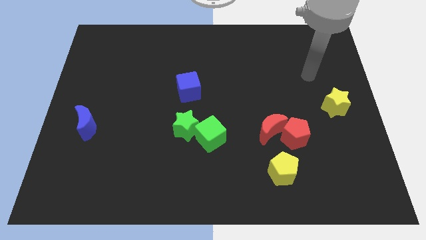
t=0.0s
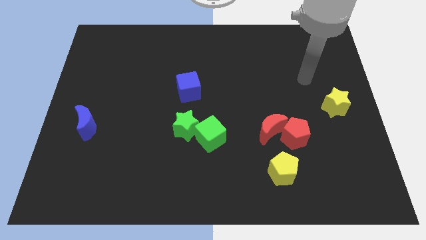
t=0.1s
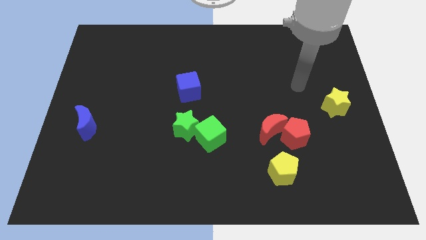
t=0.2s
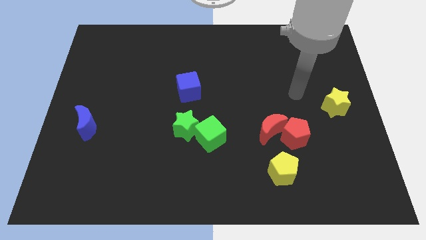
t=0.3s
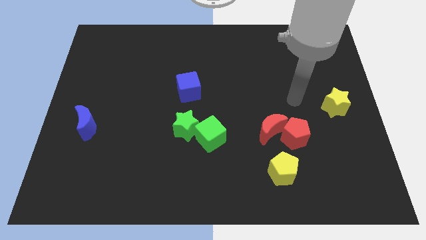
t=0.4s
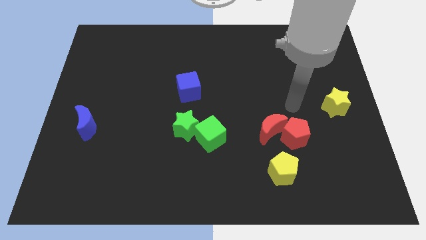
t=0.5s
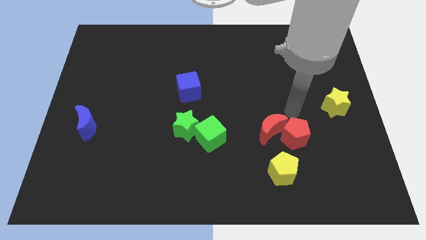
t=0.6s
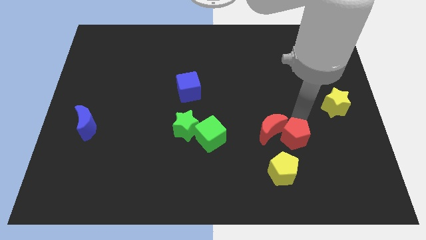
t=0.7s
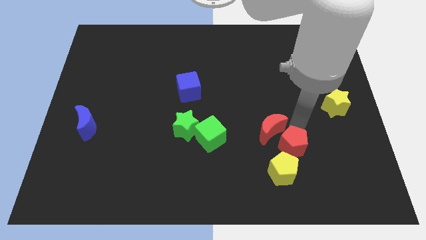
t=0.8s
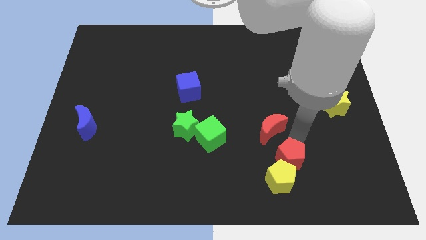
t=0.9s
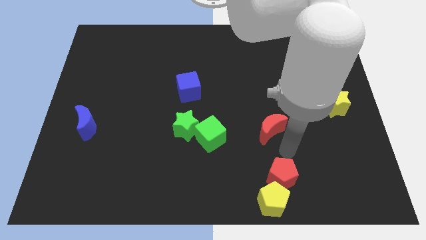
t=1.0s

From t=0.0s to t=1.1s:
pull the red moon apart from the red pentagon

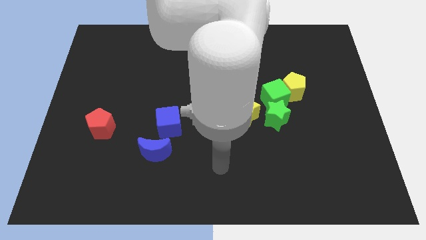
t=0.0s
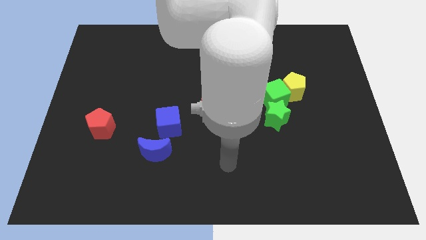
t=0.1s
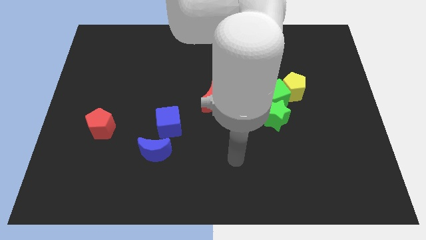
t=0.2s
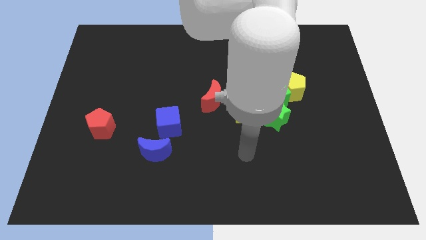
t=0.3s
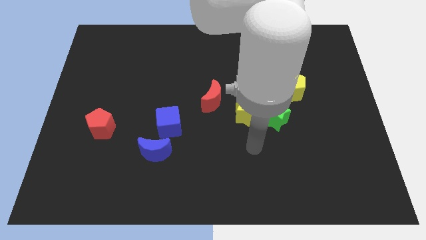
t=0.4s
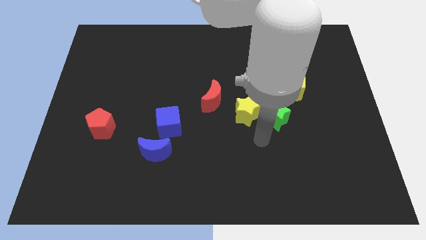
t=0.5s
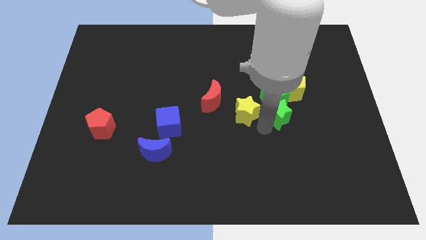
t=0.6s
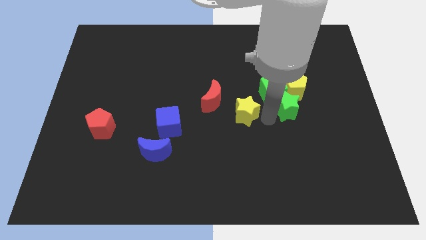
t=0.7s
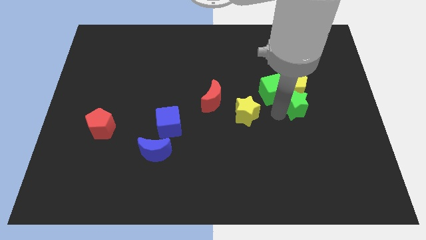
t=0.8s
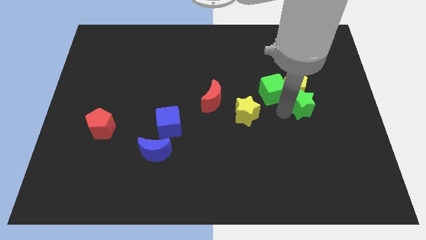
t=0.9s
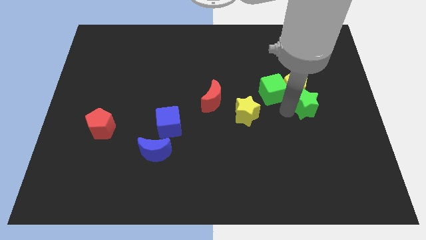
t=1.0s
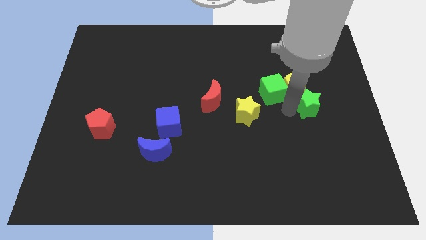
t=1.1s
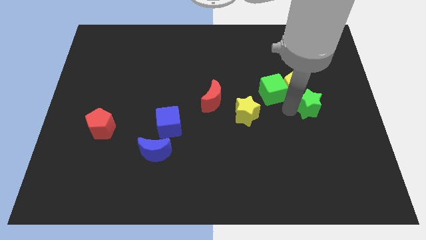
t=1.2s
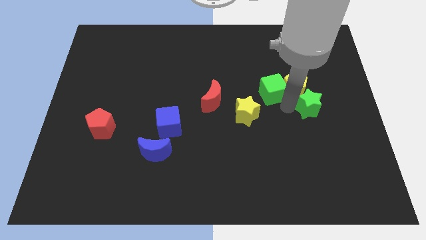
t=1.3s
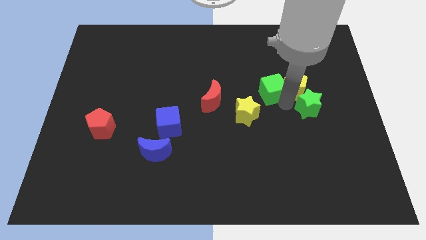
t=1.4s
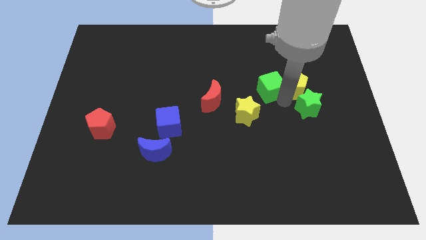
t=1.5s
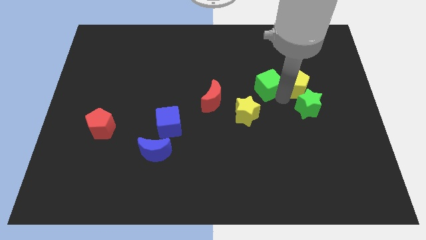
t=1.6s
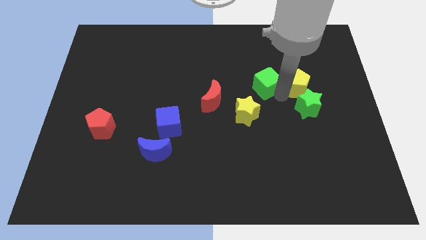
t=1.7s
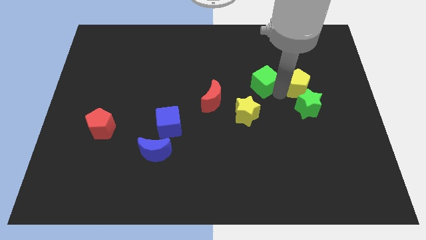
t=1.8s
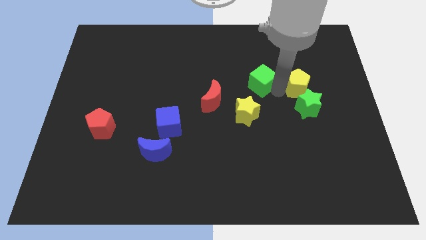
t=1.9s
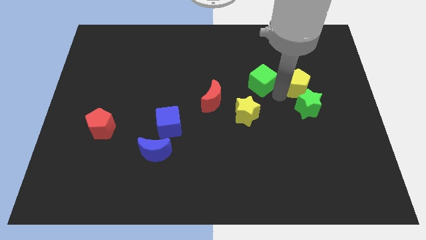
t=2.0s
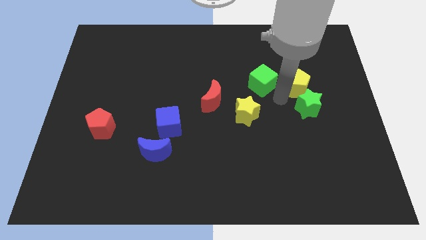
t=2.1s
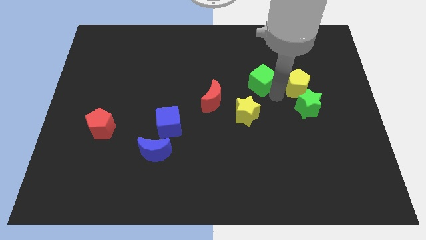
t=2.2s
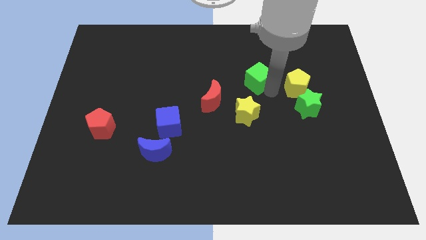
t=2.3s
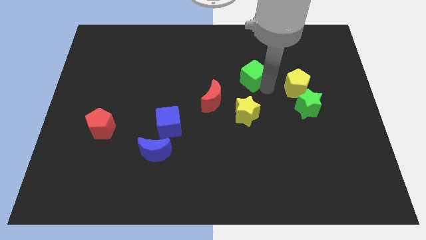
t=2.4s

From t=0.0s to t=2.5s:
pull the green cube apart from the yellow pentagon, green star, and yellow star

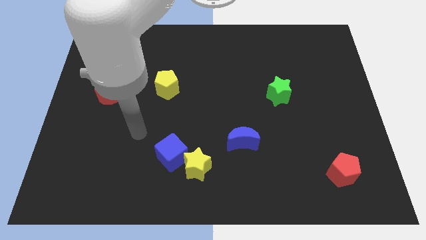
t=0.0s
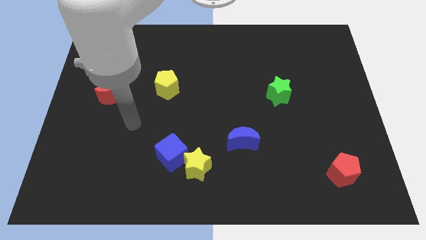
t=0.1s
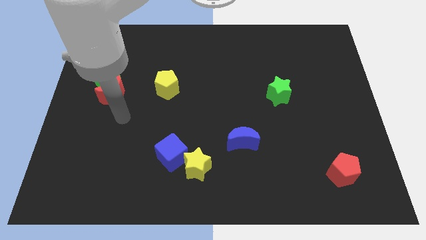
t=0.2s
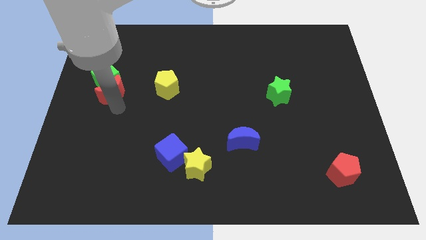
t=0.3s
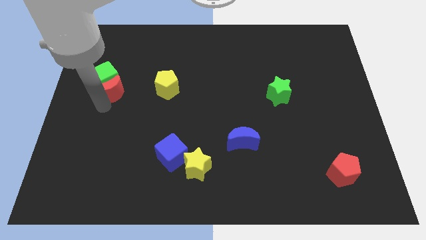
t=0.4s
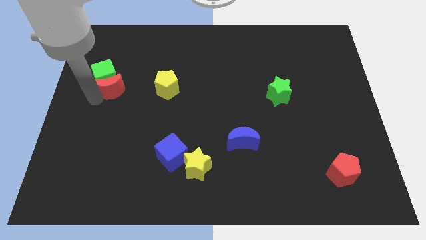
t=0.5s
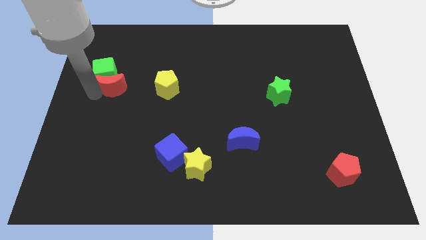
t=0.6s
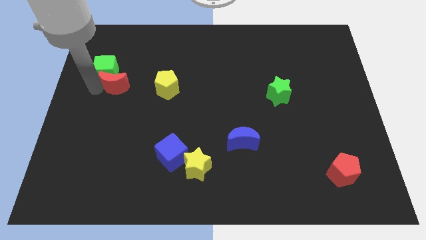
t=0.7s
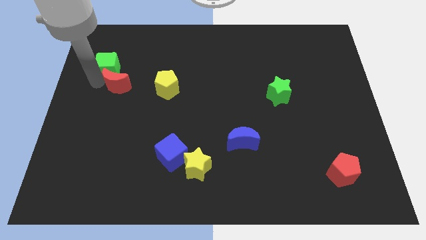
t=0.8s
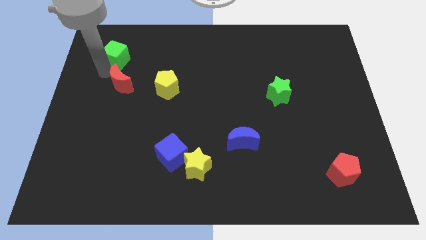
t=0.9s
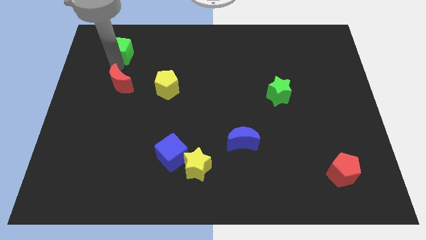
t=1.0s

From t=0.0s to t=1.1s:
pull the red moon apart from the green cube

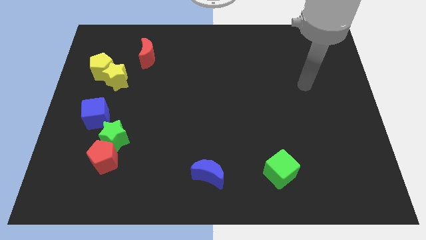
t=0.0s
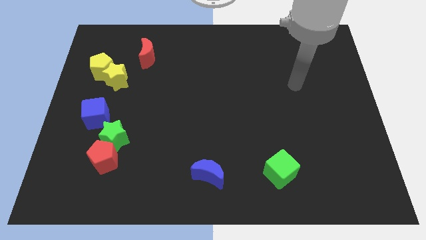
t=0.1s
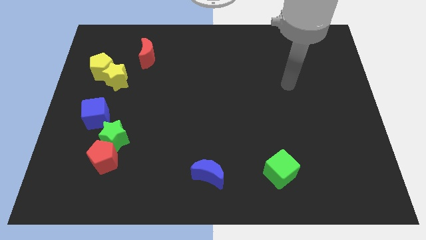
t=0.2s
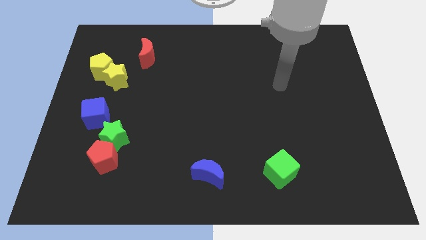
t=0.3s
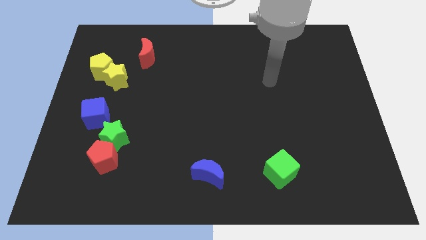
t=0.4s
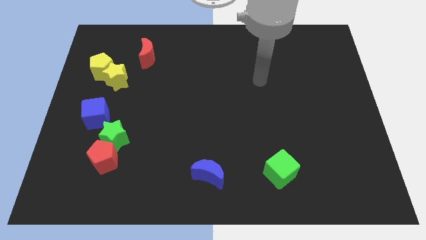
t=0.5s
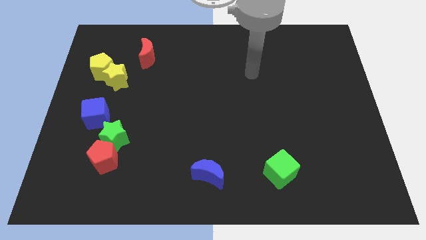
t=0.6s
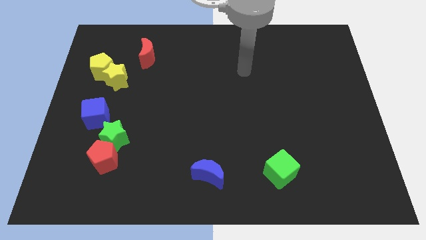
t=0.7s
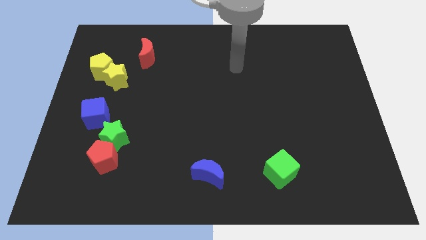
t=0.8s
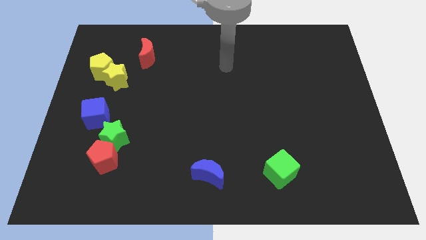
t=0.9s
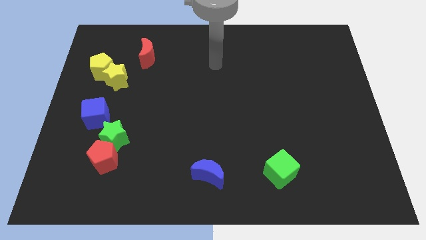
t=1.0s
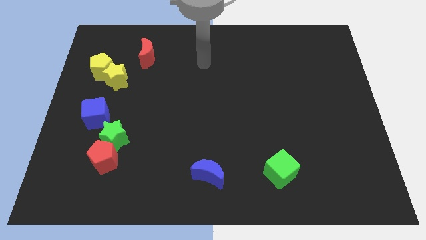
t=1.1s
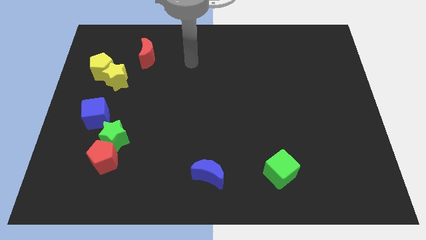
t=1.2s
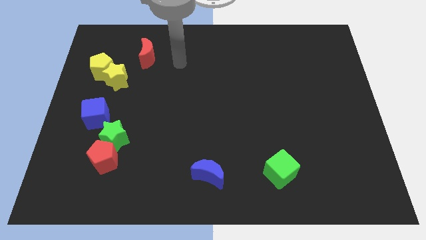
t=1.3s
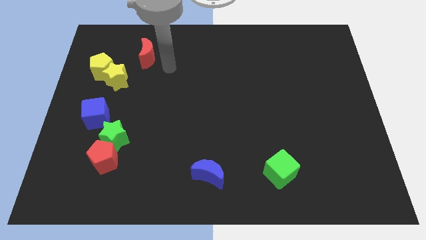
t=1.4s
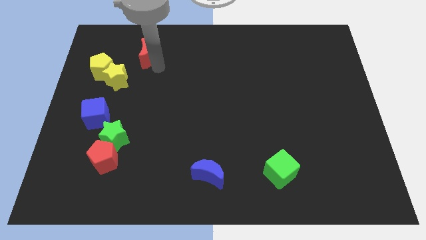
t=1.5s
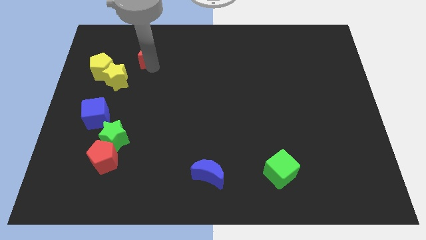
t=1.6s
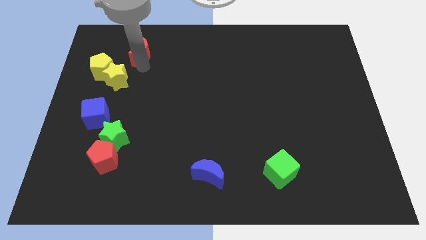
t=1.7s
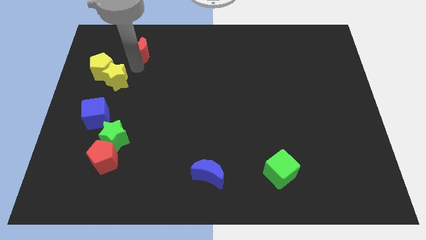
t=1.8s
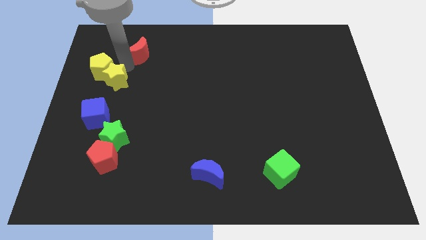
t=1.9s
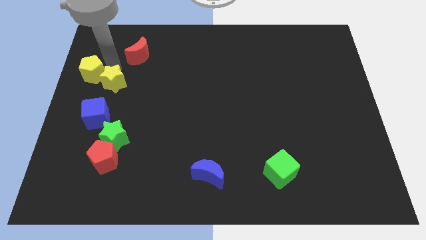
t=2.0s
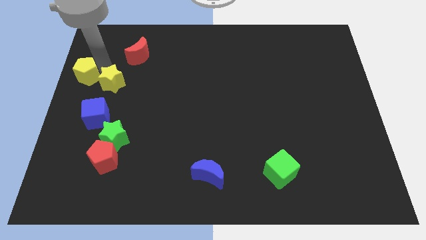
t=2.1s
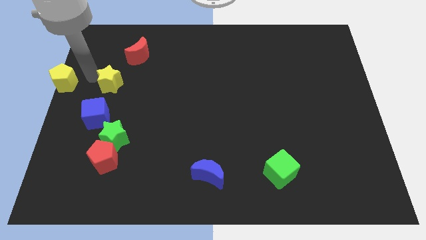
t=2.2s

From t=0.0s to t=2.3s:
move the yellow star away from the yellow pentagon

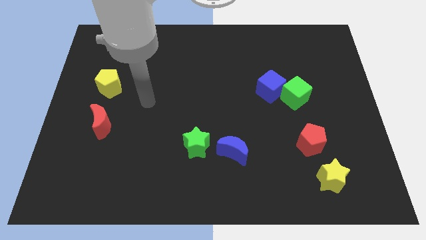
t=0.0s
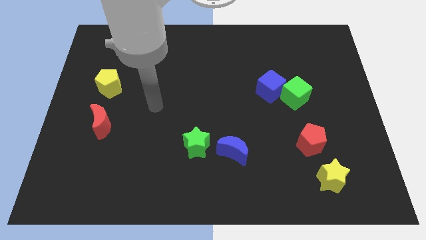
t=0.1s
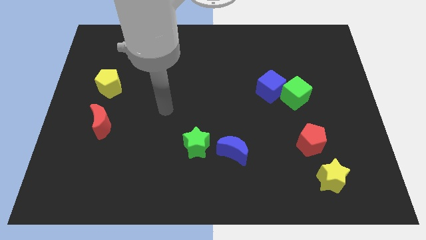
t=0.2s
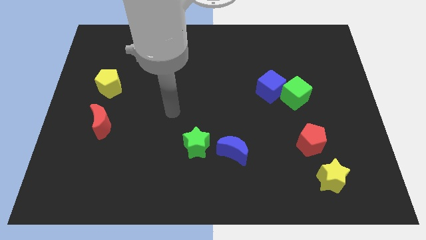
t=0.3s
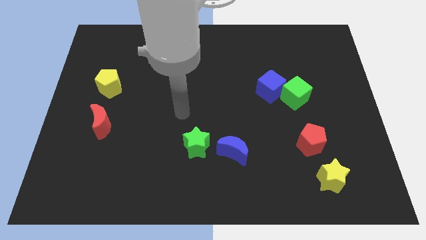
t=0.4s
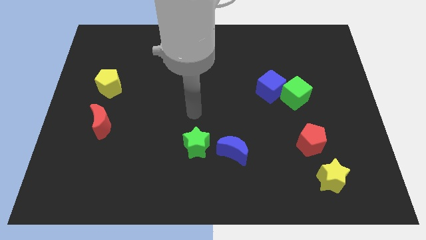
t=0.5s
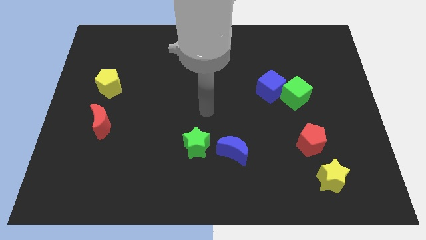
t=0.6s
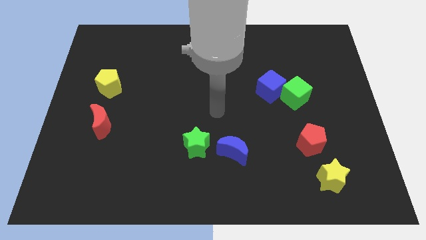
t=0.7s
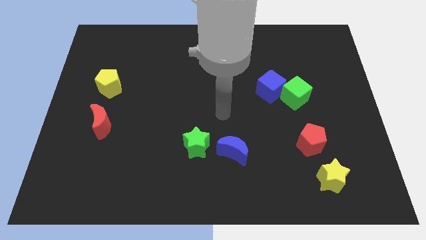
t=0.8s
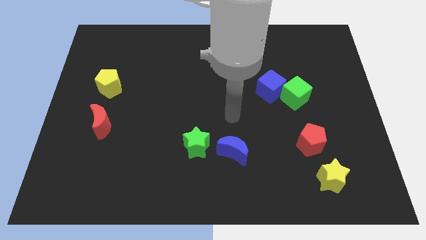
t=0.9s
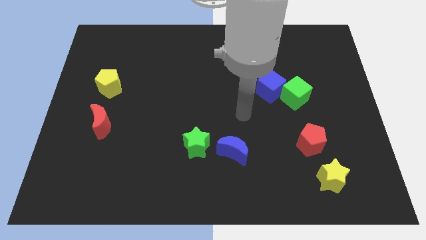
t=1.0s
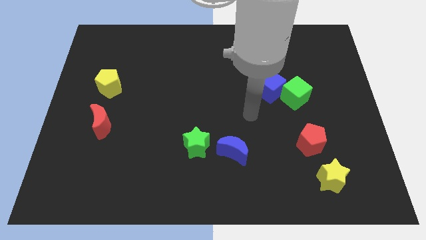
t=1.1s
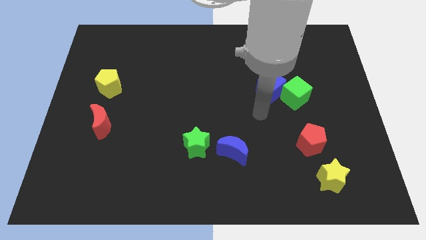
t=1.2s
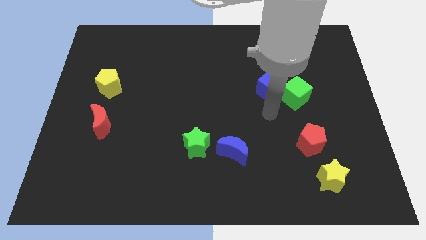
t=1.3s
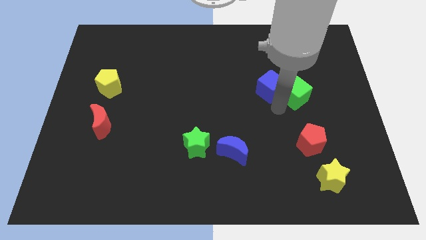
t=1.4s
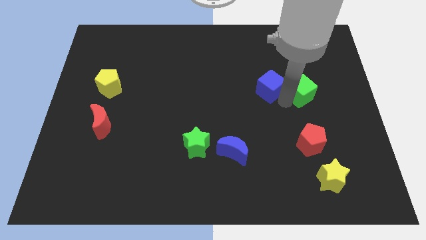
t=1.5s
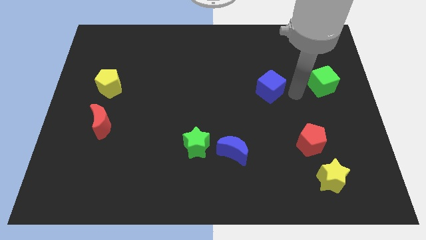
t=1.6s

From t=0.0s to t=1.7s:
separate the blue cube from the green cube

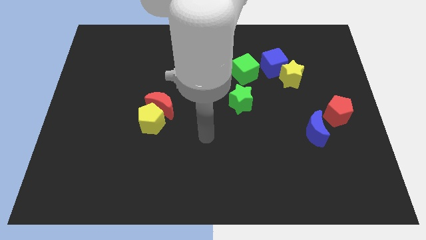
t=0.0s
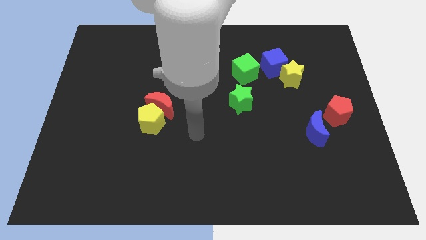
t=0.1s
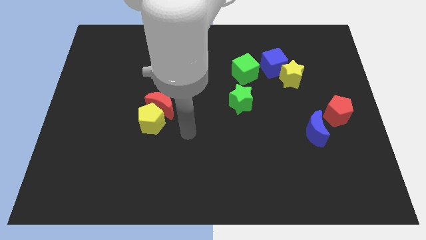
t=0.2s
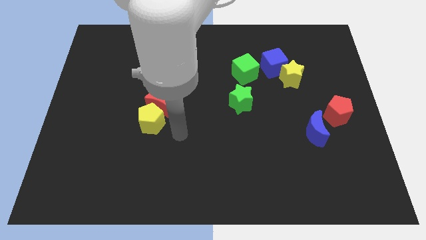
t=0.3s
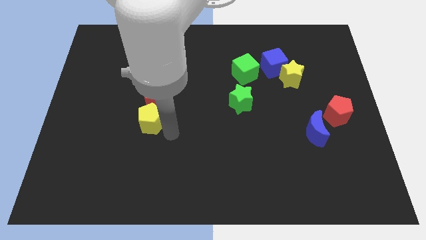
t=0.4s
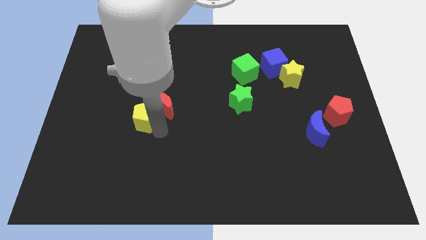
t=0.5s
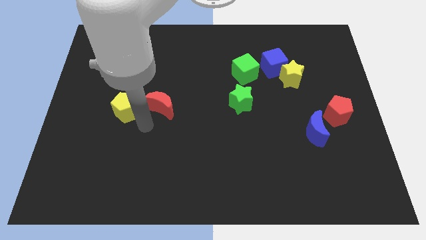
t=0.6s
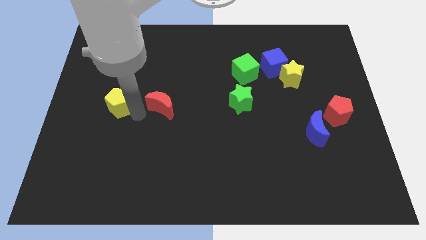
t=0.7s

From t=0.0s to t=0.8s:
separate the red moon from the yellow pentagon
